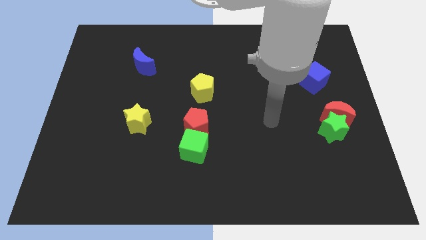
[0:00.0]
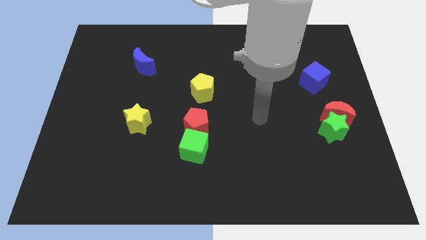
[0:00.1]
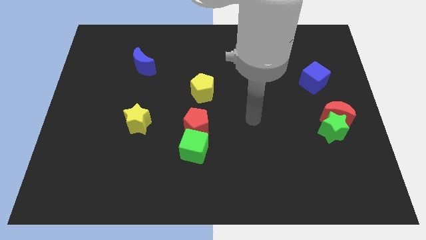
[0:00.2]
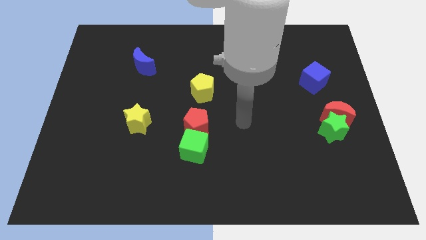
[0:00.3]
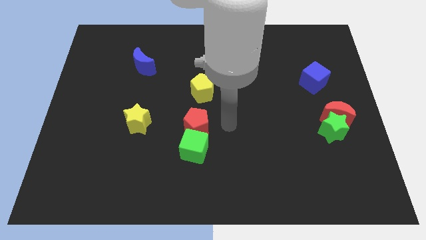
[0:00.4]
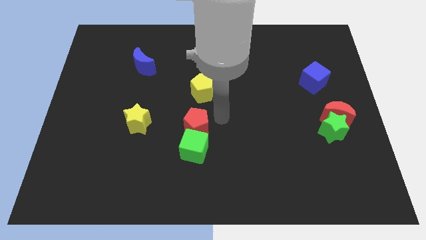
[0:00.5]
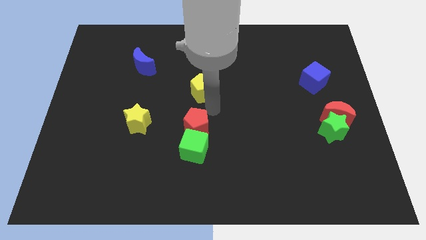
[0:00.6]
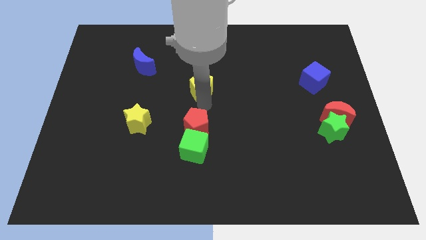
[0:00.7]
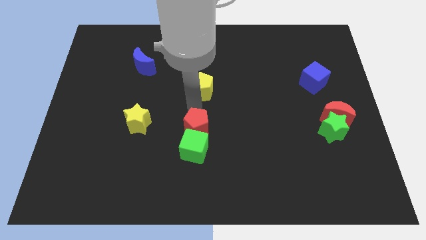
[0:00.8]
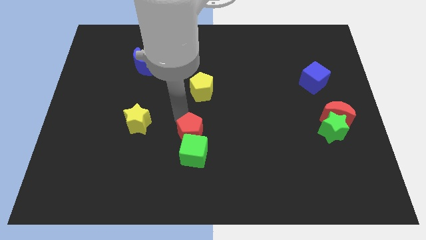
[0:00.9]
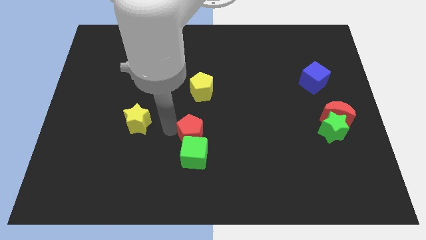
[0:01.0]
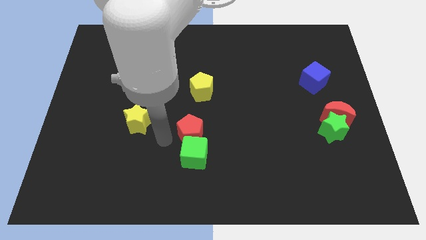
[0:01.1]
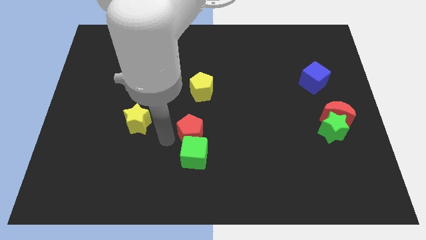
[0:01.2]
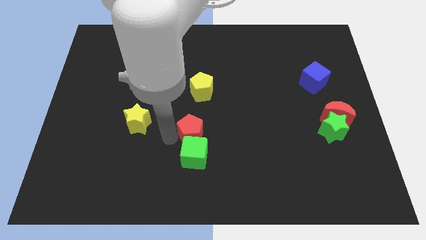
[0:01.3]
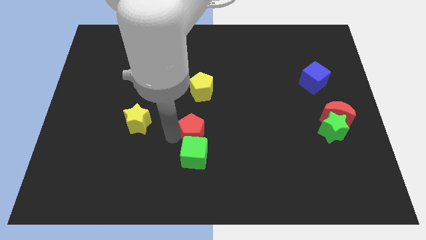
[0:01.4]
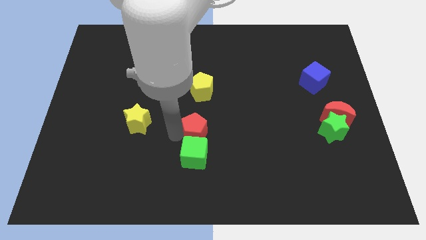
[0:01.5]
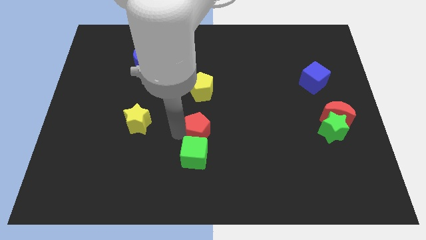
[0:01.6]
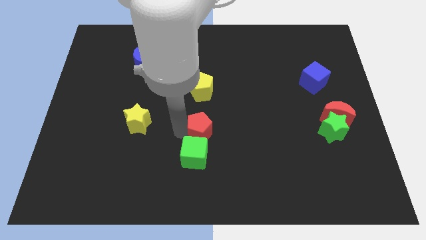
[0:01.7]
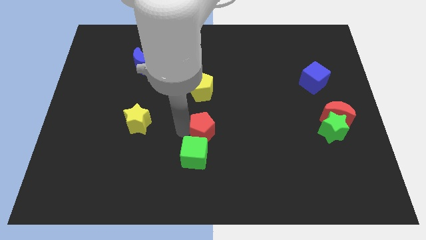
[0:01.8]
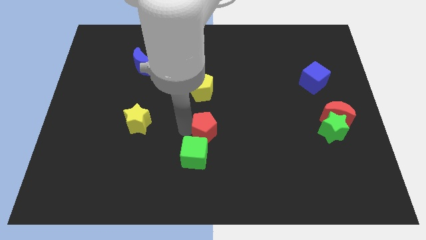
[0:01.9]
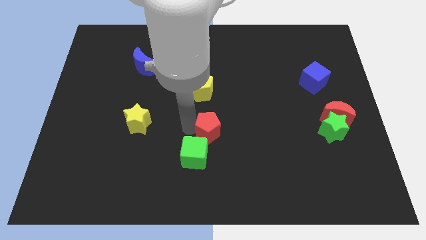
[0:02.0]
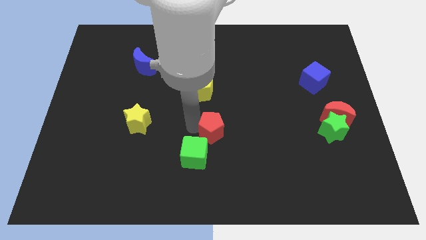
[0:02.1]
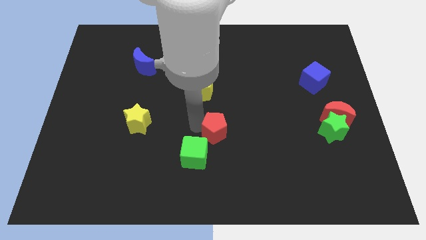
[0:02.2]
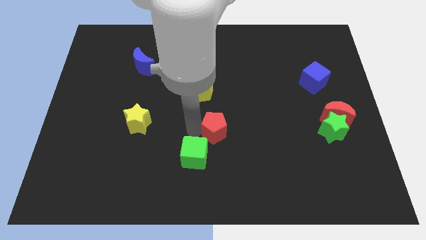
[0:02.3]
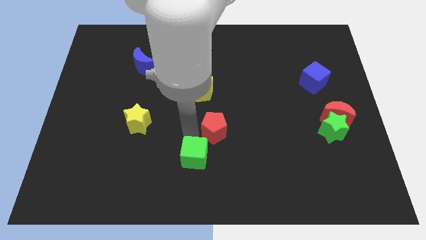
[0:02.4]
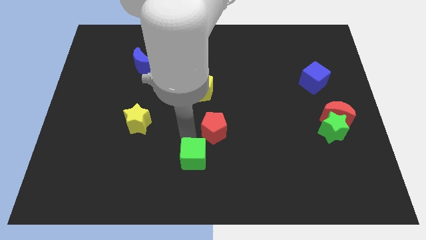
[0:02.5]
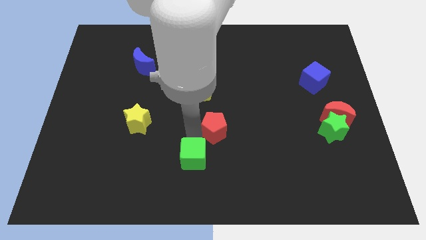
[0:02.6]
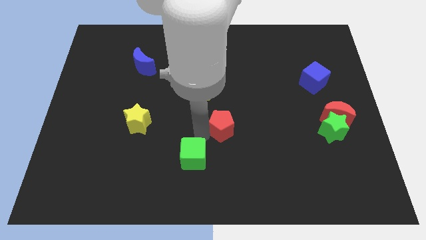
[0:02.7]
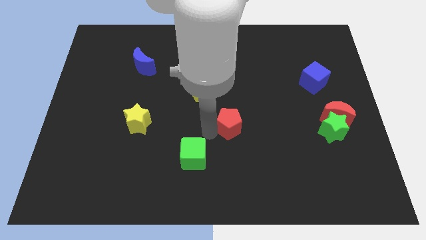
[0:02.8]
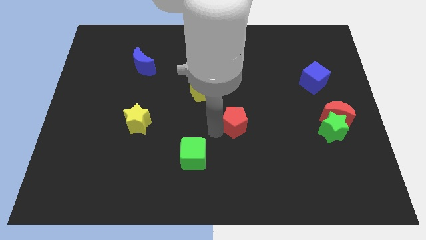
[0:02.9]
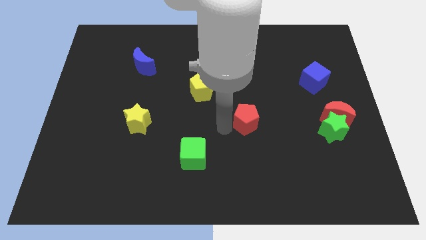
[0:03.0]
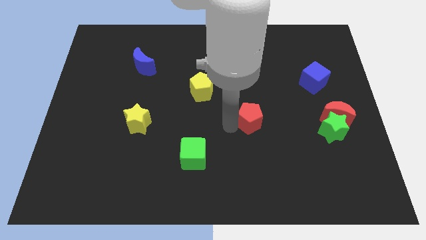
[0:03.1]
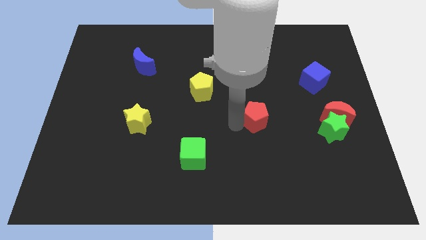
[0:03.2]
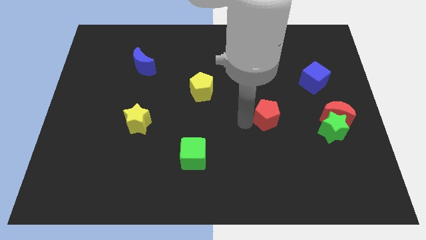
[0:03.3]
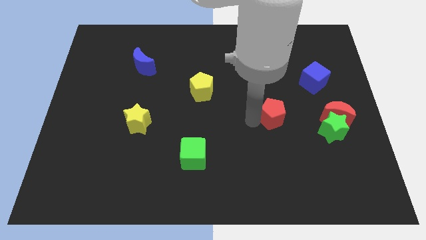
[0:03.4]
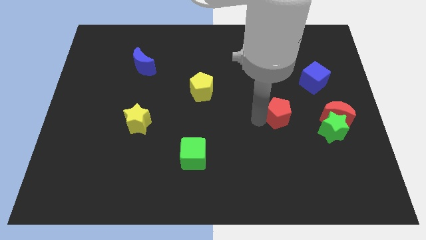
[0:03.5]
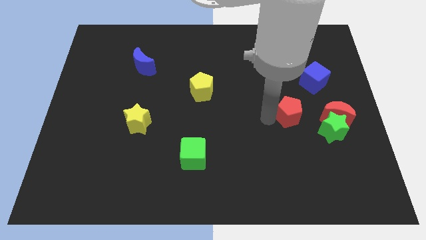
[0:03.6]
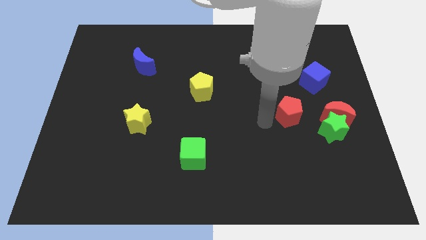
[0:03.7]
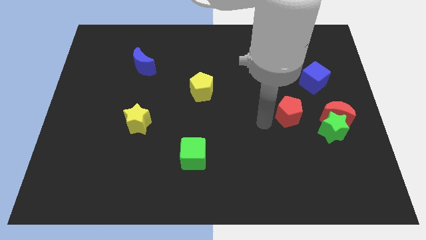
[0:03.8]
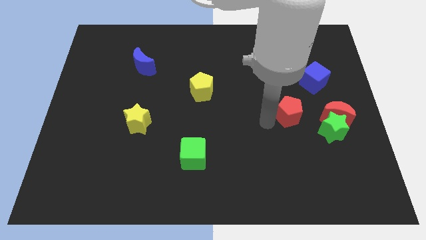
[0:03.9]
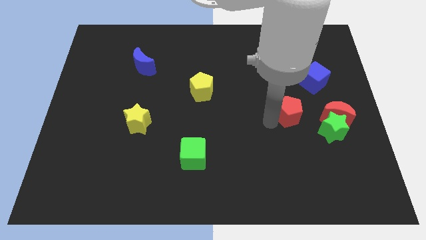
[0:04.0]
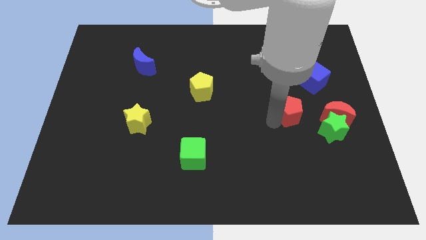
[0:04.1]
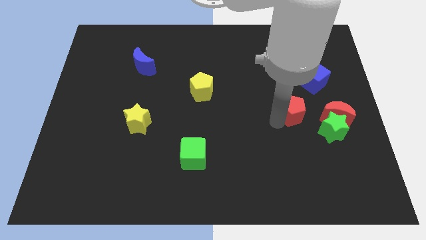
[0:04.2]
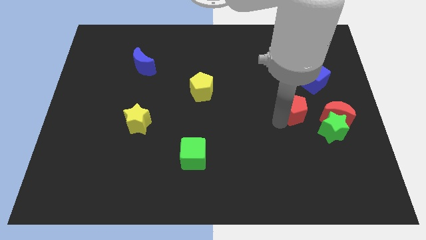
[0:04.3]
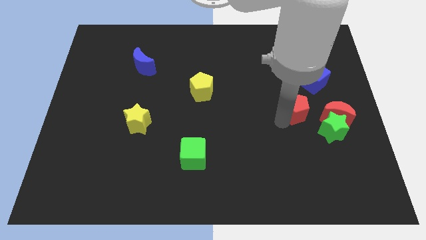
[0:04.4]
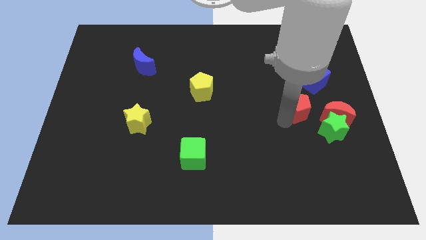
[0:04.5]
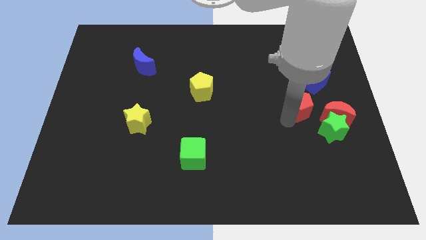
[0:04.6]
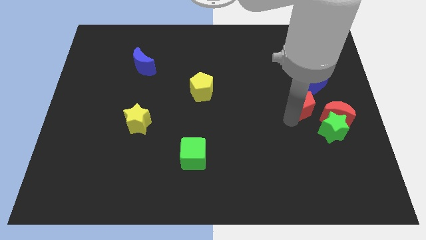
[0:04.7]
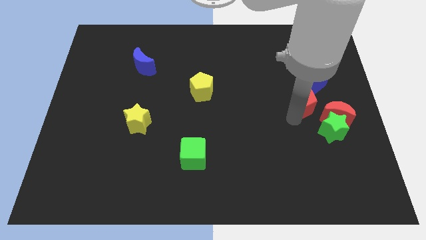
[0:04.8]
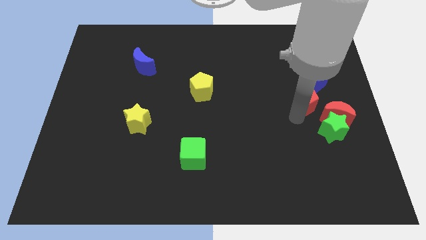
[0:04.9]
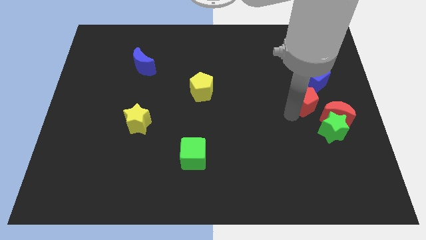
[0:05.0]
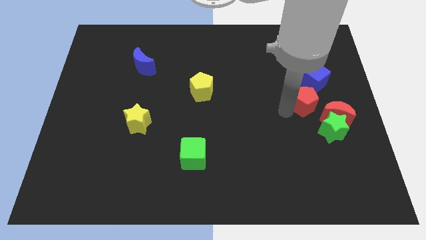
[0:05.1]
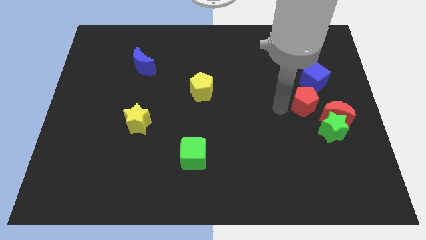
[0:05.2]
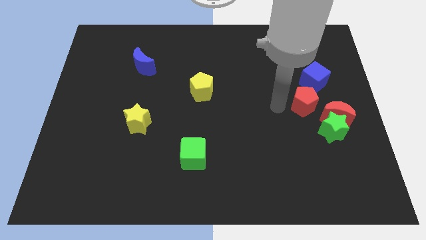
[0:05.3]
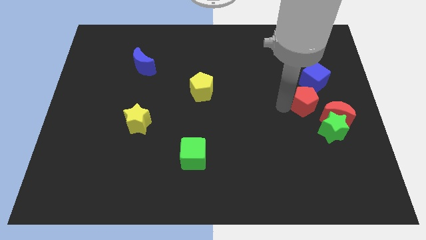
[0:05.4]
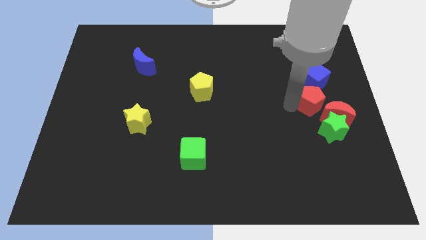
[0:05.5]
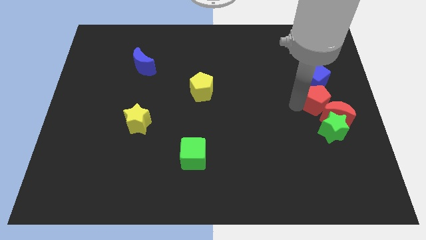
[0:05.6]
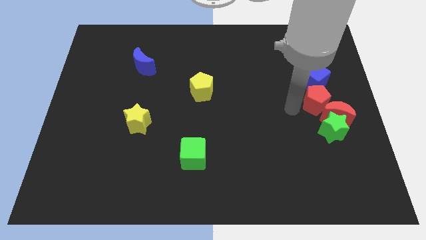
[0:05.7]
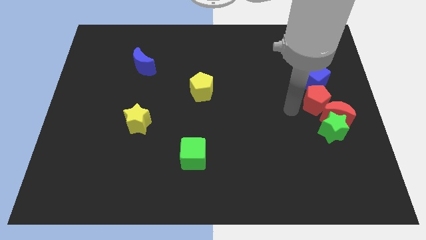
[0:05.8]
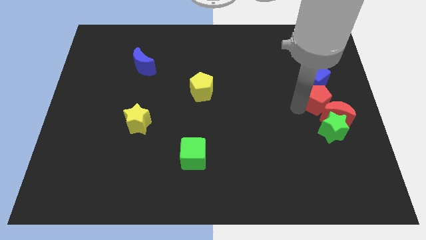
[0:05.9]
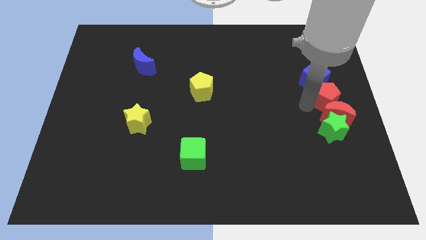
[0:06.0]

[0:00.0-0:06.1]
put the red pentagon to the right side

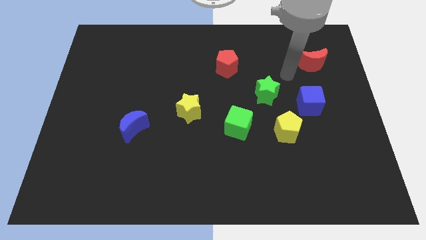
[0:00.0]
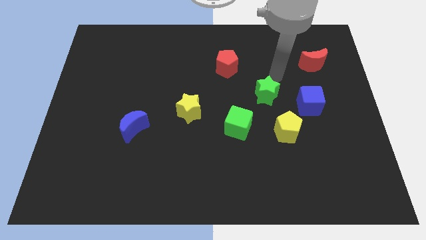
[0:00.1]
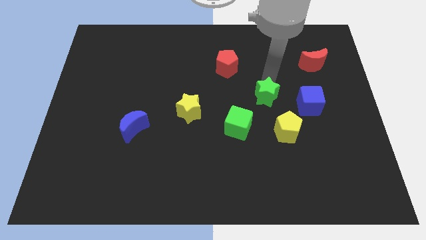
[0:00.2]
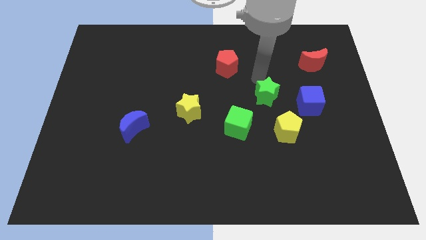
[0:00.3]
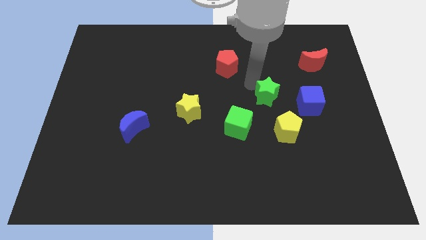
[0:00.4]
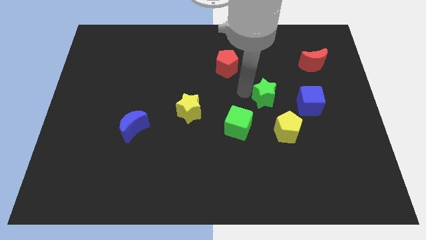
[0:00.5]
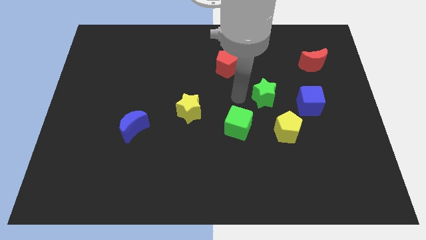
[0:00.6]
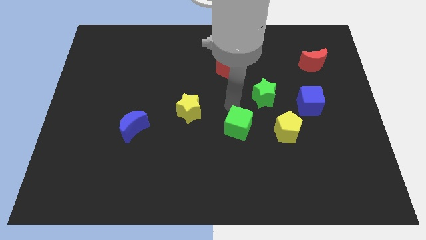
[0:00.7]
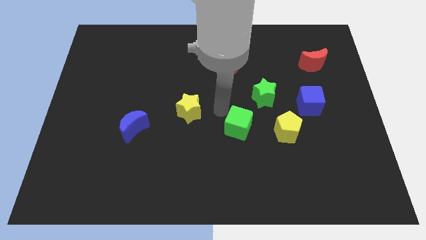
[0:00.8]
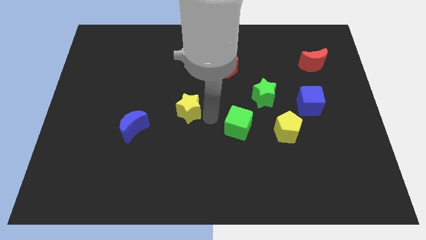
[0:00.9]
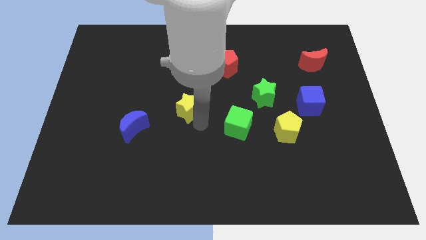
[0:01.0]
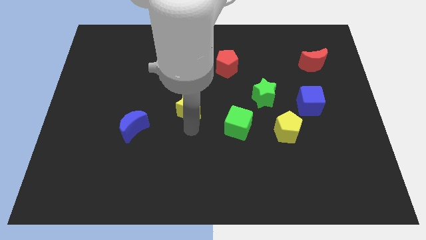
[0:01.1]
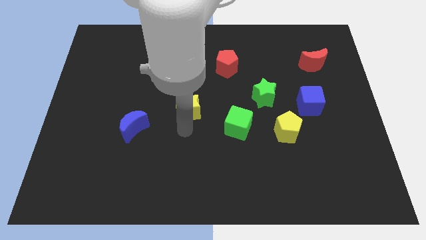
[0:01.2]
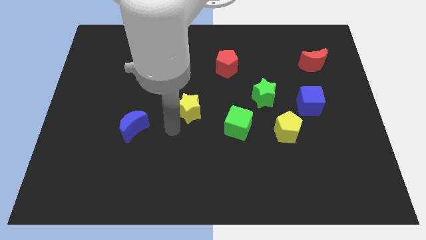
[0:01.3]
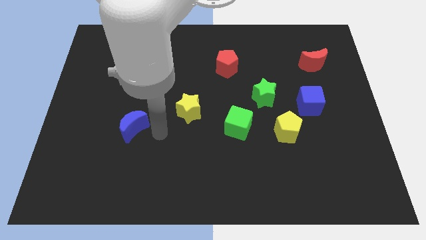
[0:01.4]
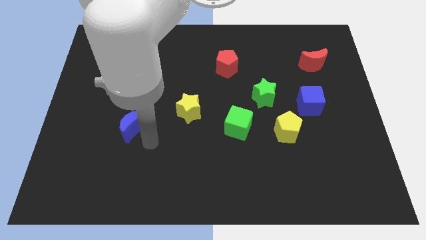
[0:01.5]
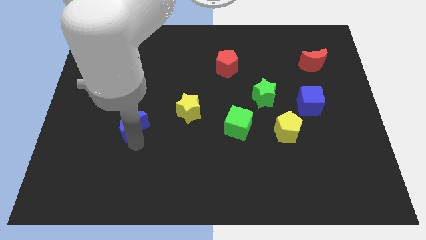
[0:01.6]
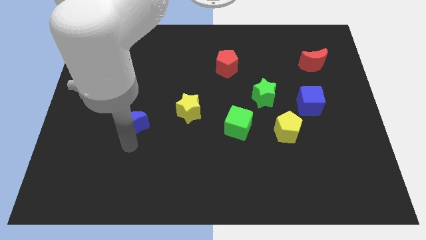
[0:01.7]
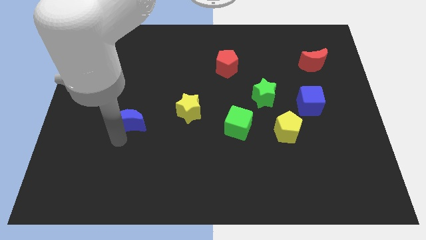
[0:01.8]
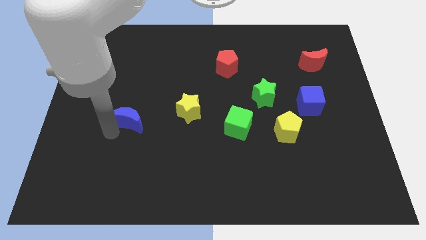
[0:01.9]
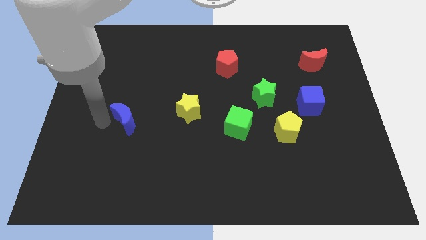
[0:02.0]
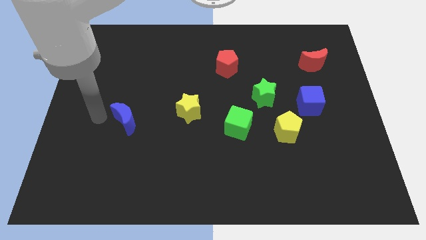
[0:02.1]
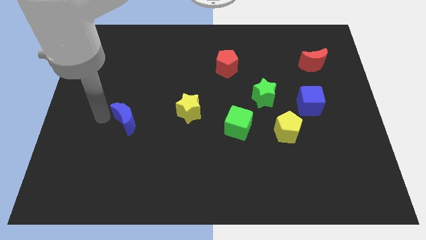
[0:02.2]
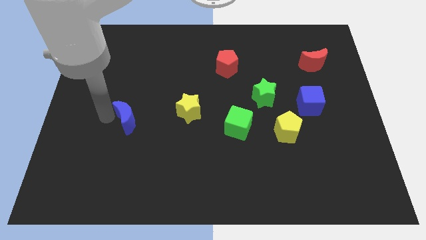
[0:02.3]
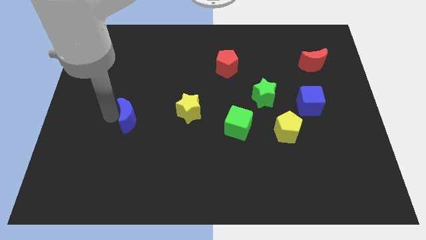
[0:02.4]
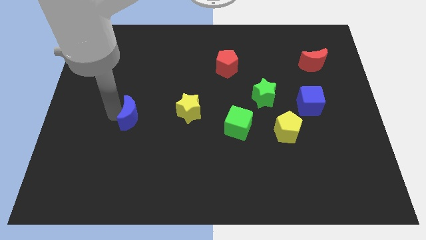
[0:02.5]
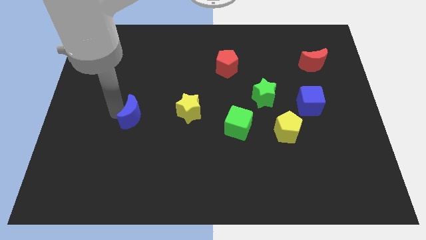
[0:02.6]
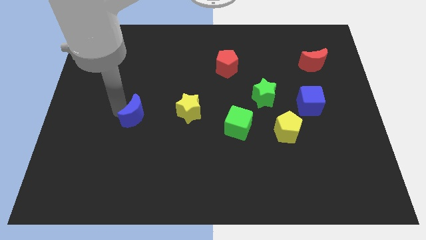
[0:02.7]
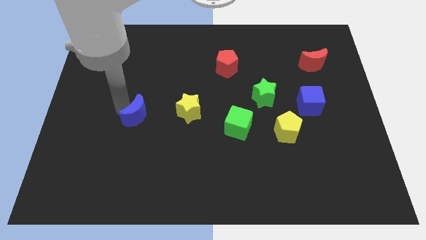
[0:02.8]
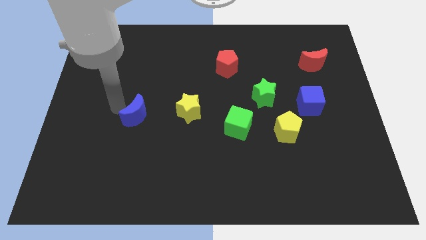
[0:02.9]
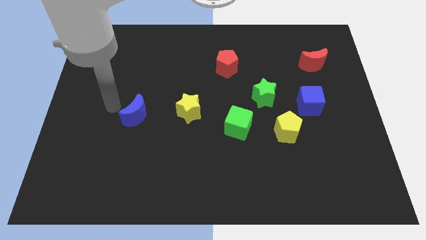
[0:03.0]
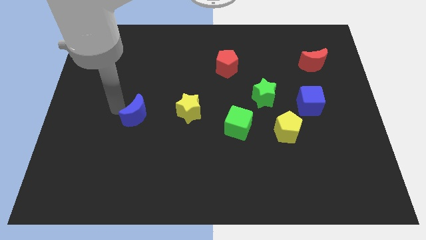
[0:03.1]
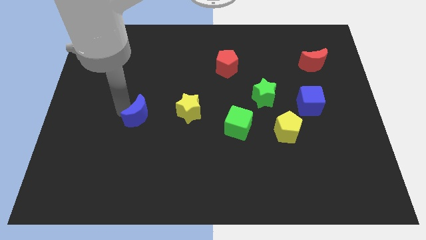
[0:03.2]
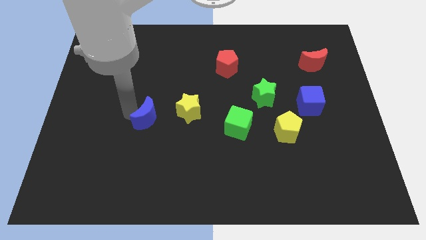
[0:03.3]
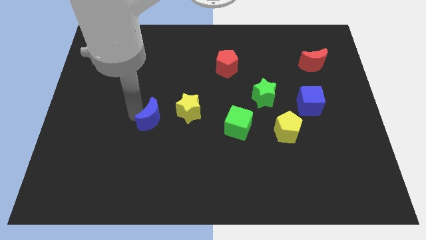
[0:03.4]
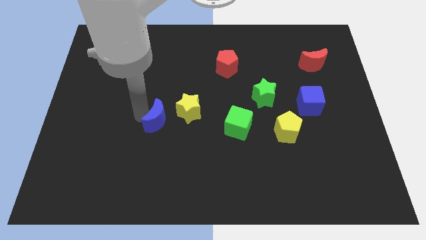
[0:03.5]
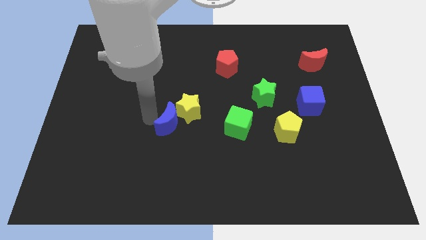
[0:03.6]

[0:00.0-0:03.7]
put the blue moon to the center of the board
